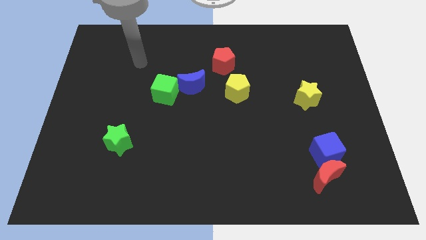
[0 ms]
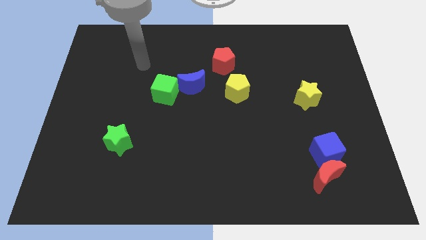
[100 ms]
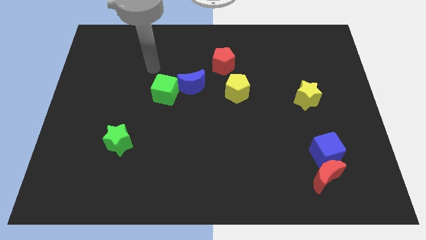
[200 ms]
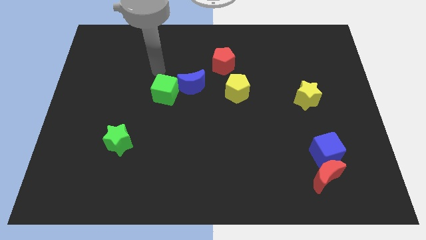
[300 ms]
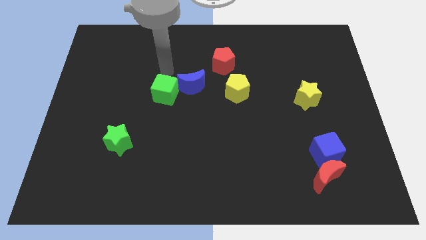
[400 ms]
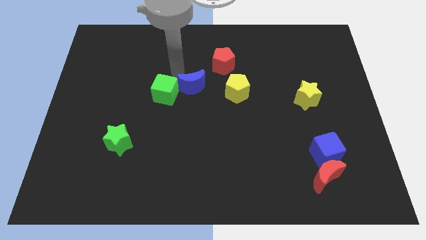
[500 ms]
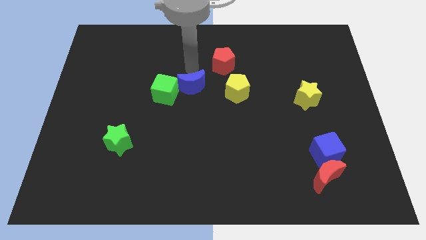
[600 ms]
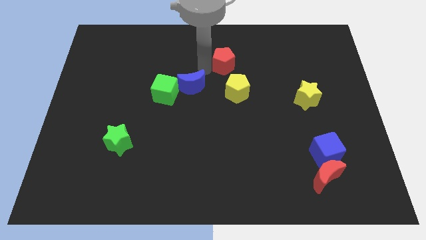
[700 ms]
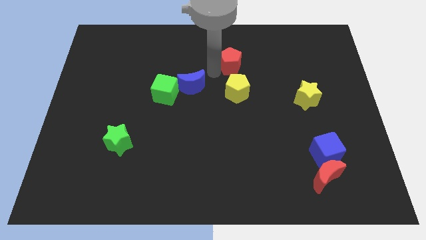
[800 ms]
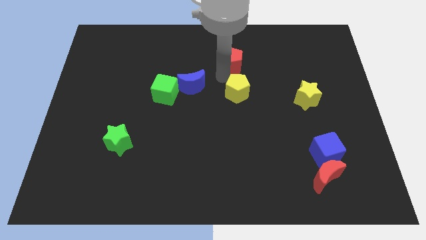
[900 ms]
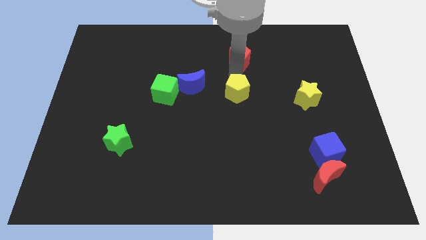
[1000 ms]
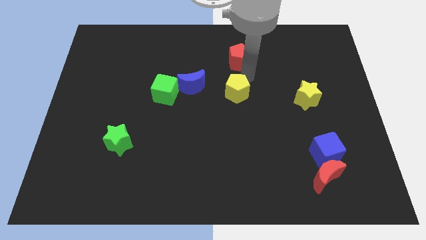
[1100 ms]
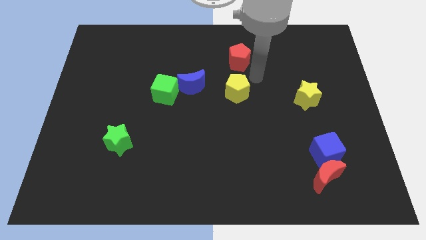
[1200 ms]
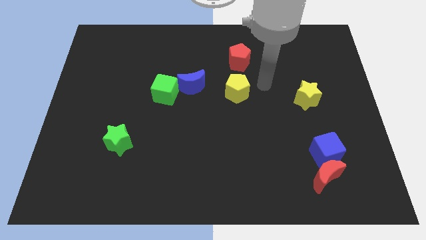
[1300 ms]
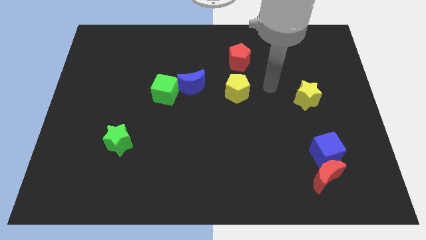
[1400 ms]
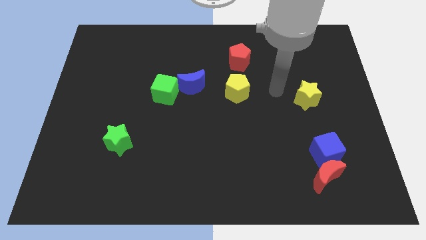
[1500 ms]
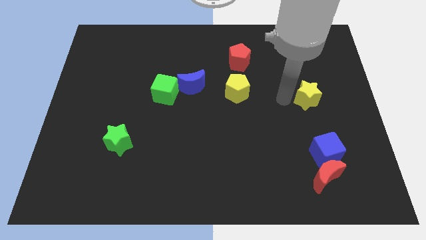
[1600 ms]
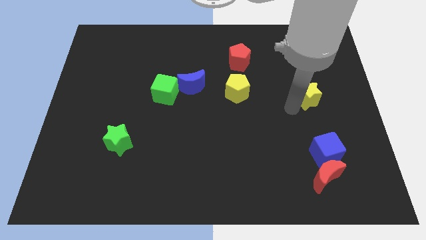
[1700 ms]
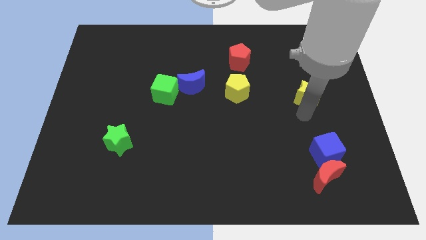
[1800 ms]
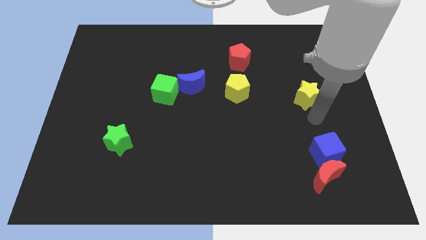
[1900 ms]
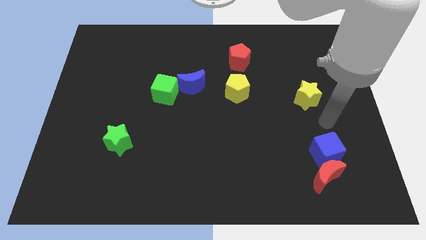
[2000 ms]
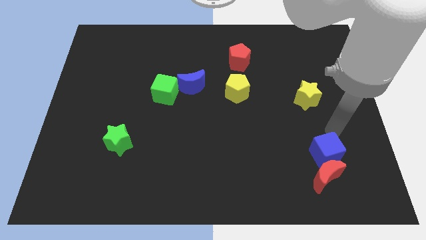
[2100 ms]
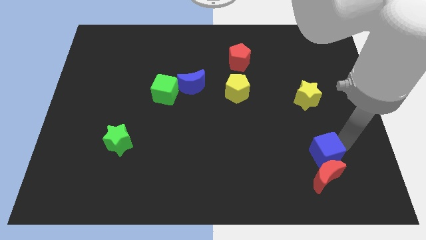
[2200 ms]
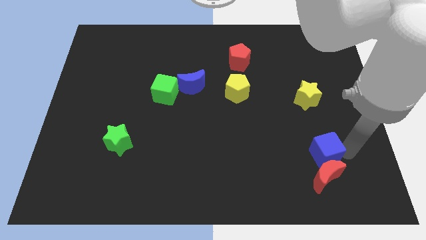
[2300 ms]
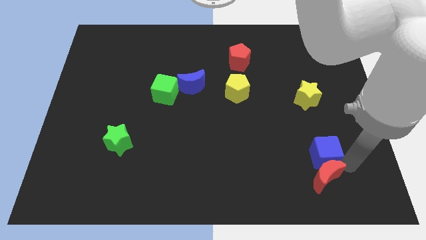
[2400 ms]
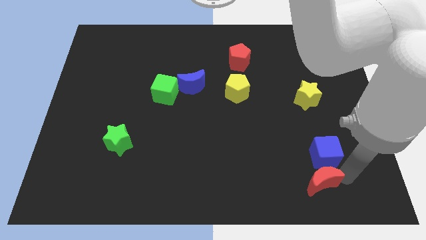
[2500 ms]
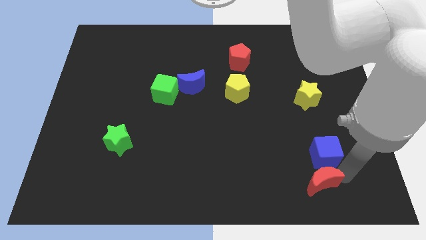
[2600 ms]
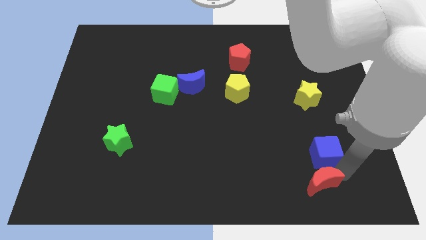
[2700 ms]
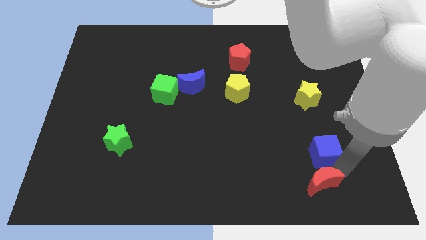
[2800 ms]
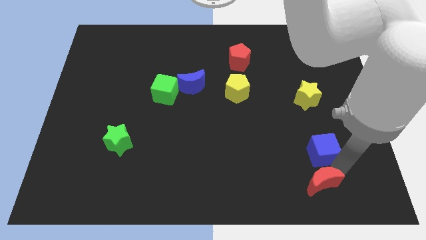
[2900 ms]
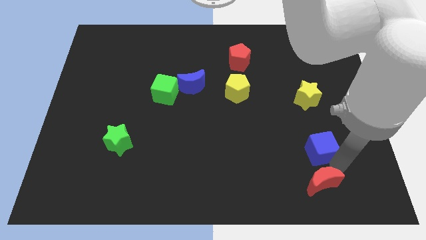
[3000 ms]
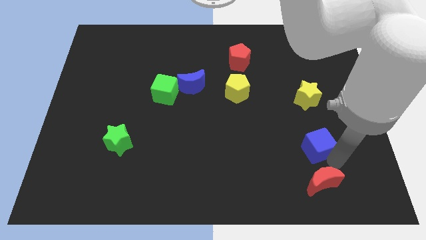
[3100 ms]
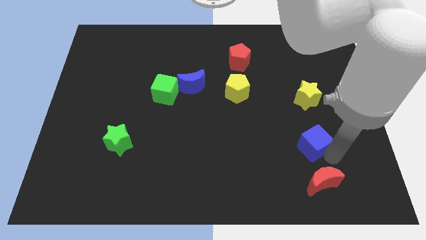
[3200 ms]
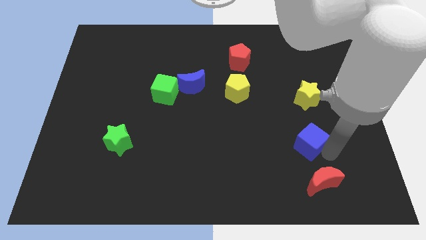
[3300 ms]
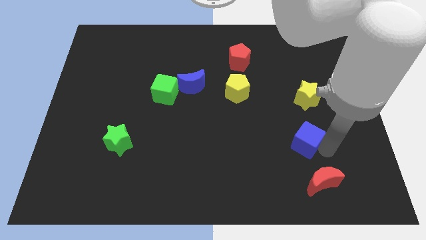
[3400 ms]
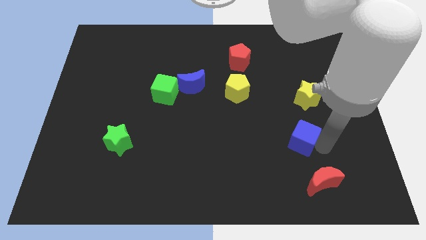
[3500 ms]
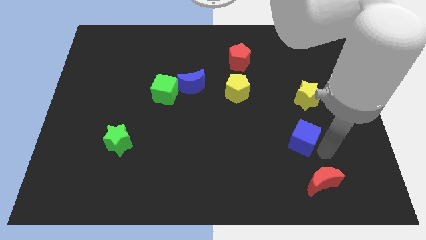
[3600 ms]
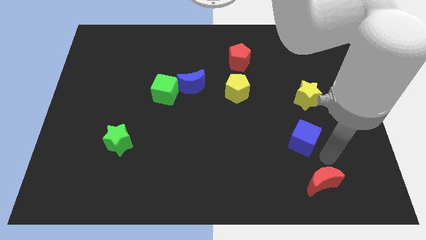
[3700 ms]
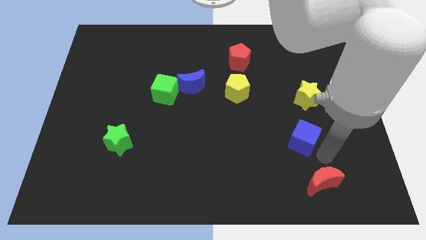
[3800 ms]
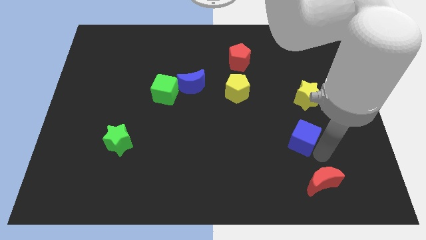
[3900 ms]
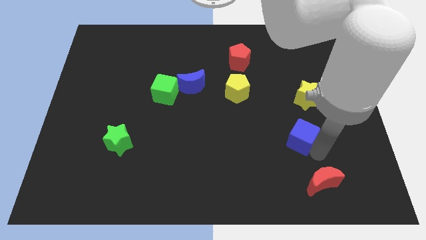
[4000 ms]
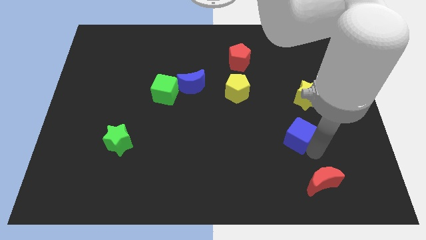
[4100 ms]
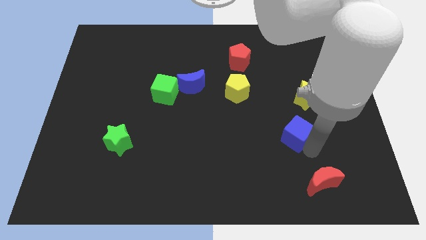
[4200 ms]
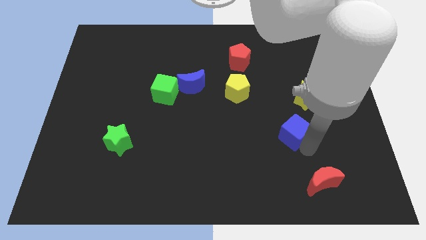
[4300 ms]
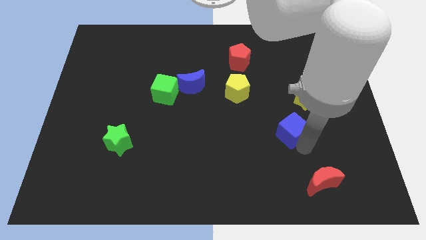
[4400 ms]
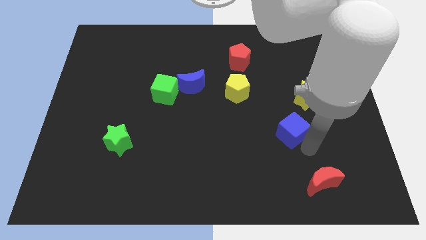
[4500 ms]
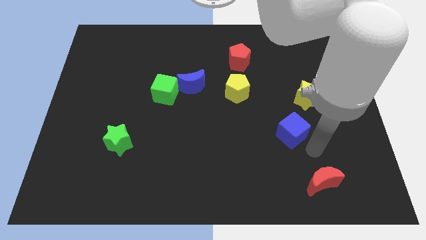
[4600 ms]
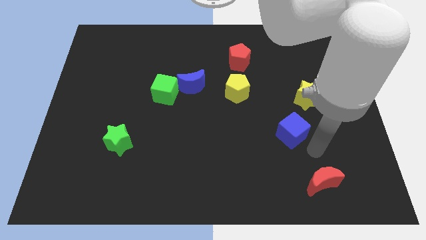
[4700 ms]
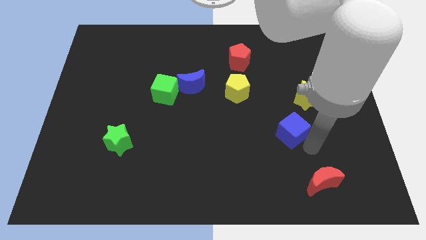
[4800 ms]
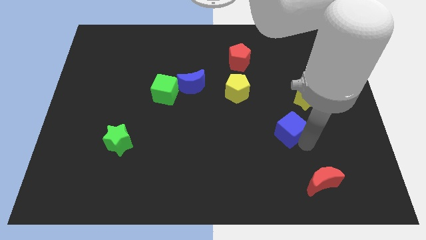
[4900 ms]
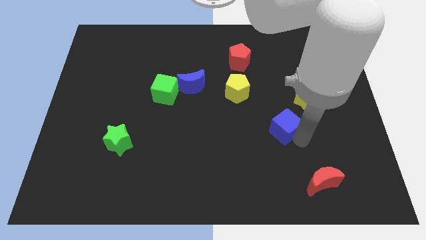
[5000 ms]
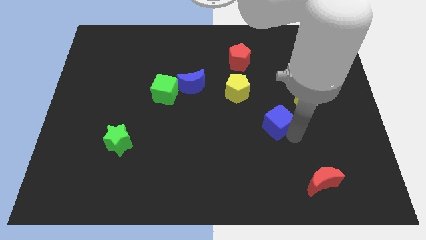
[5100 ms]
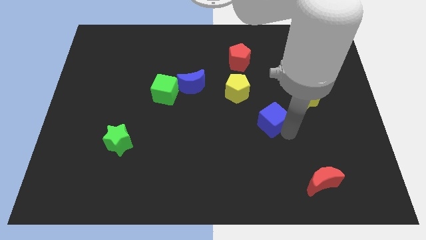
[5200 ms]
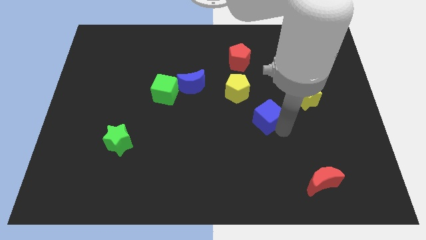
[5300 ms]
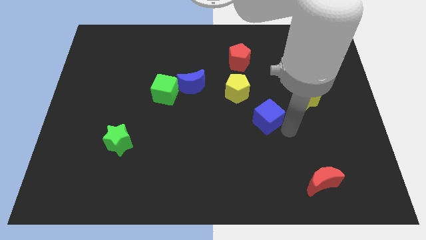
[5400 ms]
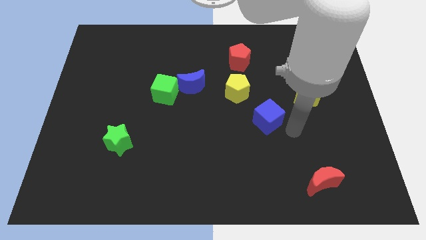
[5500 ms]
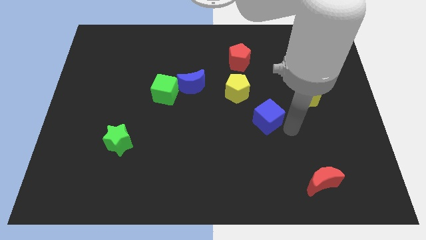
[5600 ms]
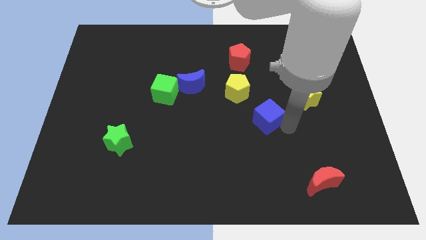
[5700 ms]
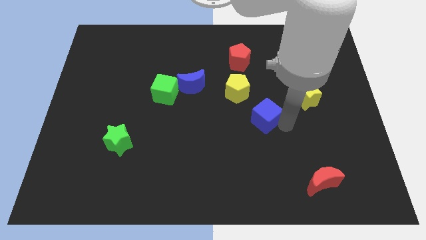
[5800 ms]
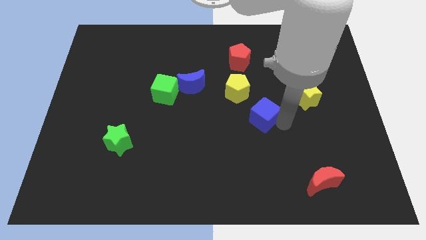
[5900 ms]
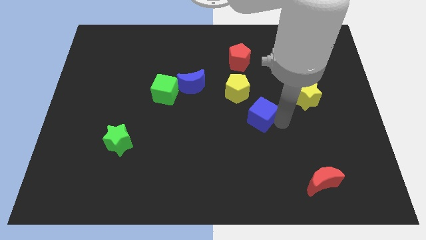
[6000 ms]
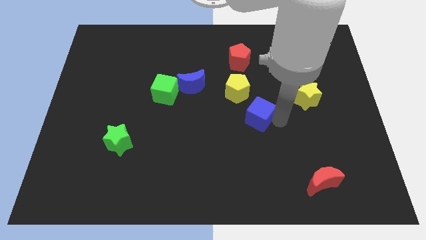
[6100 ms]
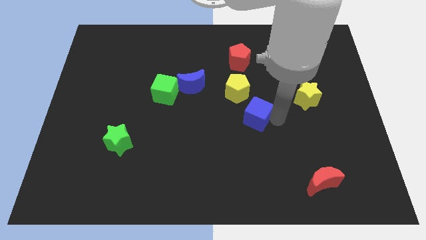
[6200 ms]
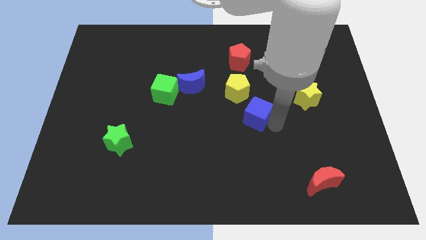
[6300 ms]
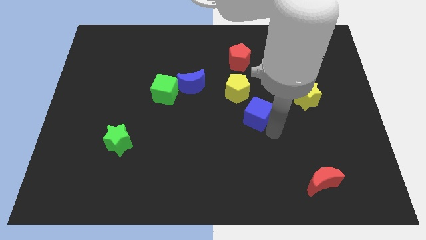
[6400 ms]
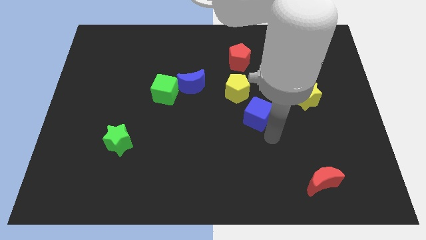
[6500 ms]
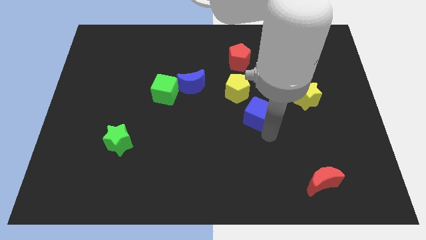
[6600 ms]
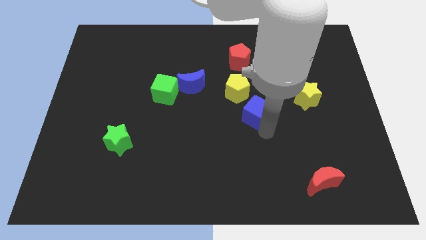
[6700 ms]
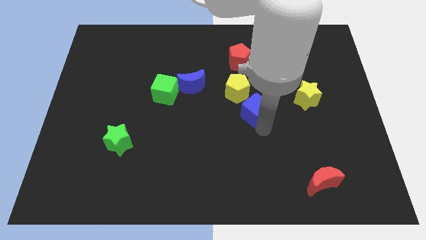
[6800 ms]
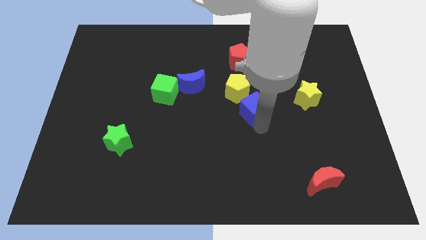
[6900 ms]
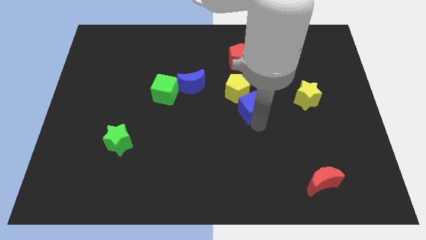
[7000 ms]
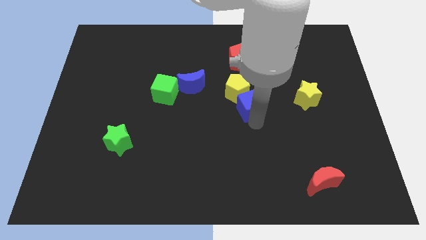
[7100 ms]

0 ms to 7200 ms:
push the blue cube to the bottom of the red pentagon
